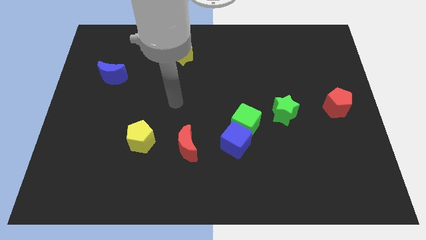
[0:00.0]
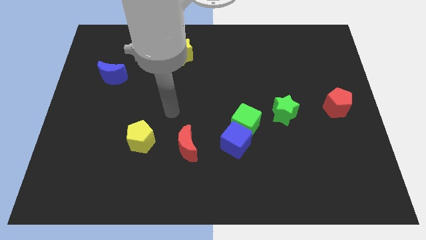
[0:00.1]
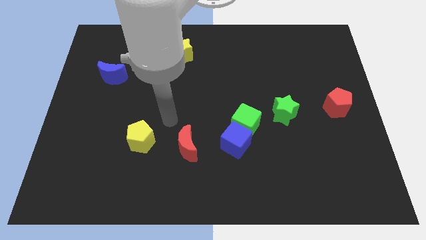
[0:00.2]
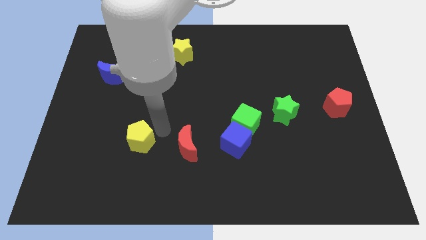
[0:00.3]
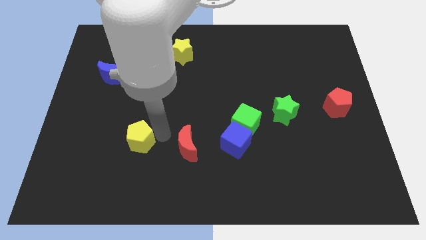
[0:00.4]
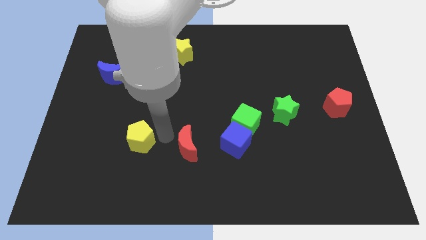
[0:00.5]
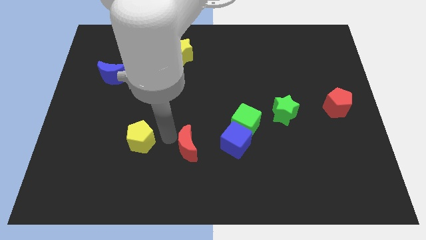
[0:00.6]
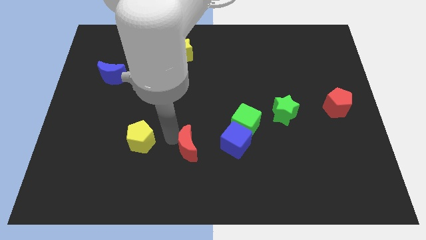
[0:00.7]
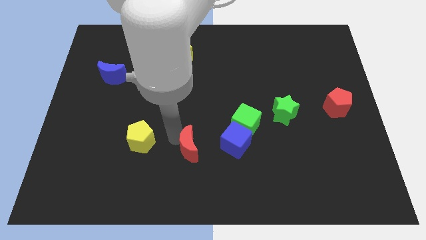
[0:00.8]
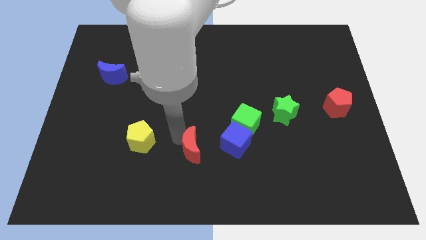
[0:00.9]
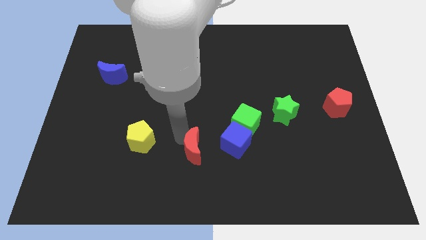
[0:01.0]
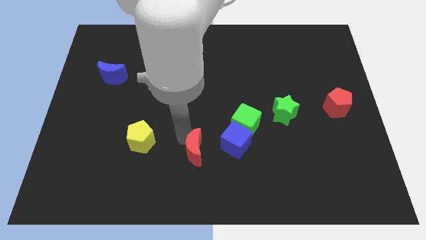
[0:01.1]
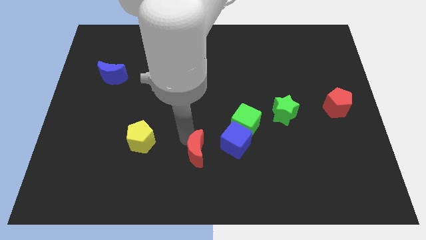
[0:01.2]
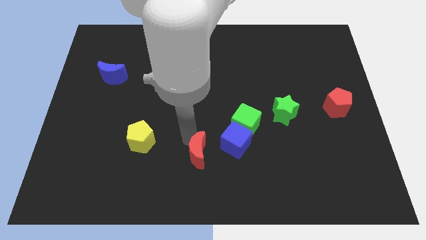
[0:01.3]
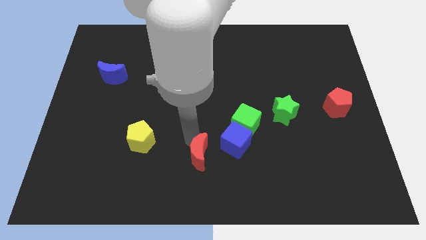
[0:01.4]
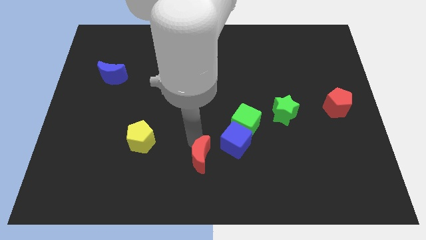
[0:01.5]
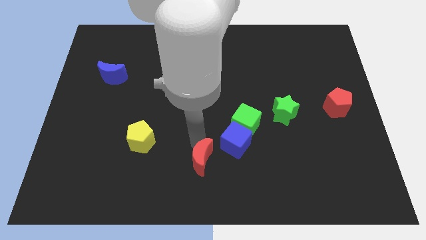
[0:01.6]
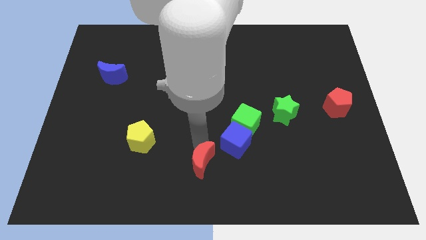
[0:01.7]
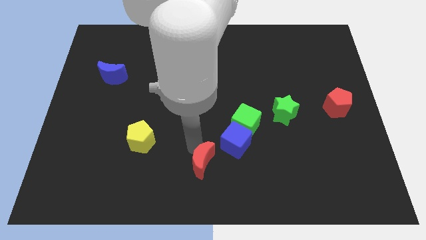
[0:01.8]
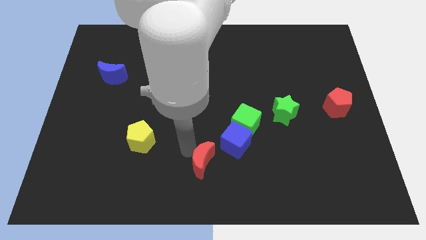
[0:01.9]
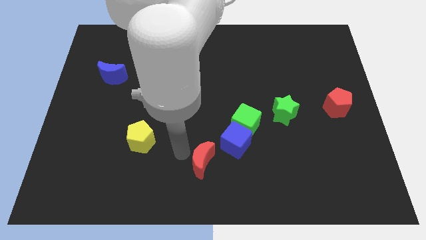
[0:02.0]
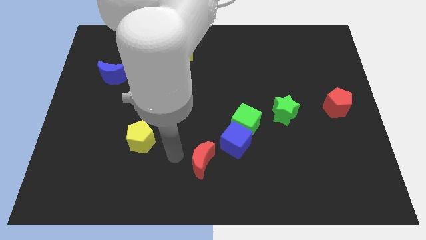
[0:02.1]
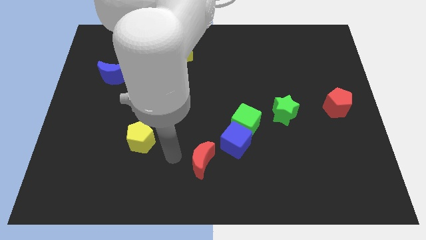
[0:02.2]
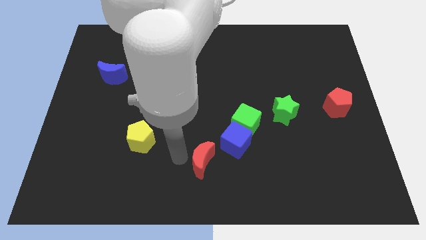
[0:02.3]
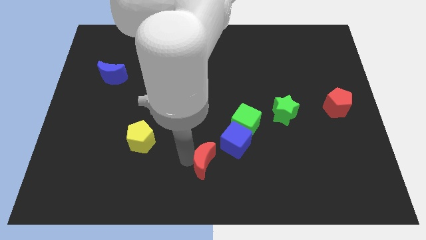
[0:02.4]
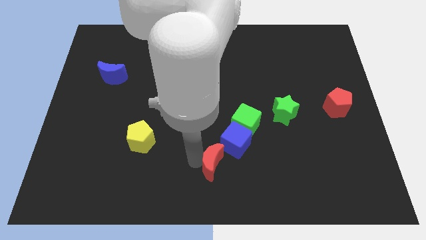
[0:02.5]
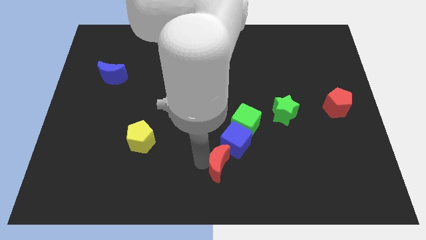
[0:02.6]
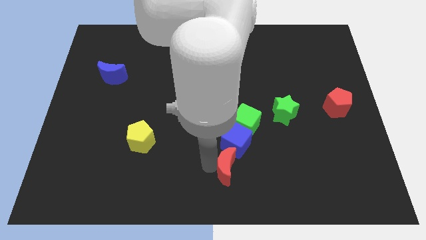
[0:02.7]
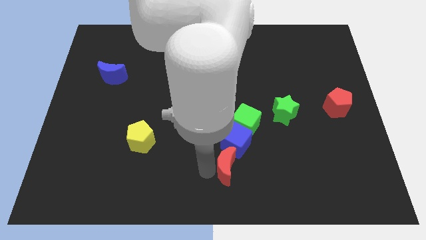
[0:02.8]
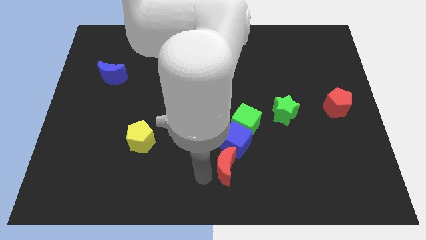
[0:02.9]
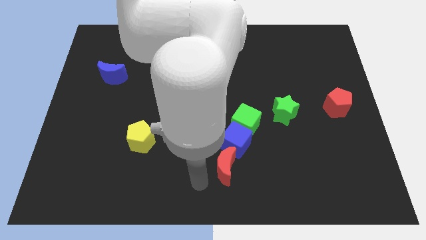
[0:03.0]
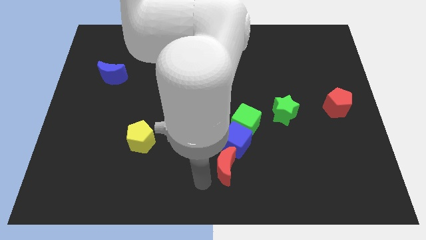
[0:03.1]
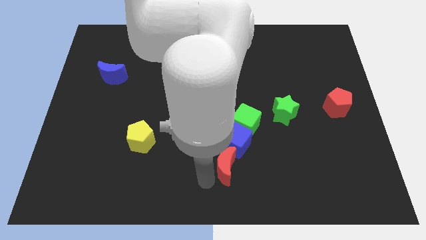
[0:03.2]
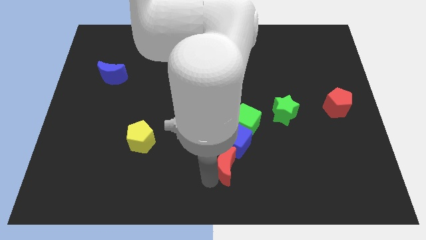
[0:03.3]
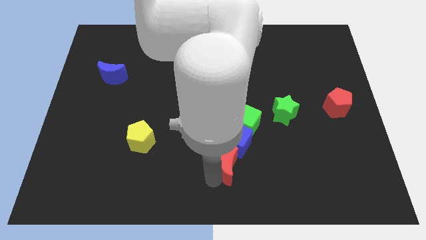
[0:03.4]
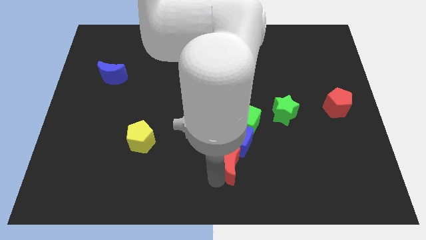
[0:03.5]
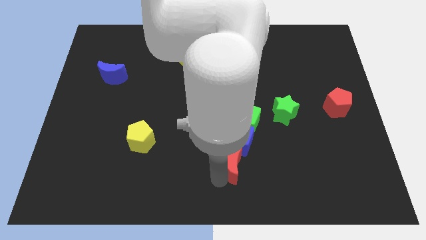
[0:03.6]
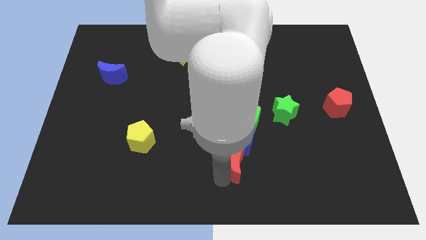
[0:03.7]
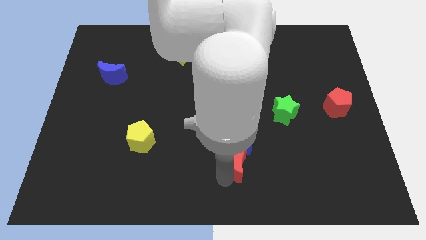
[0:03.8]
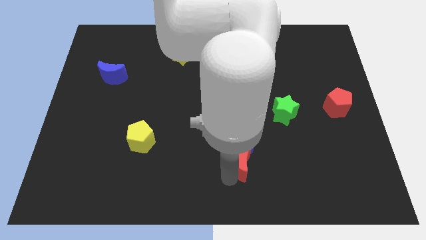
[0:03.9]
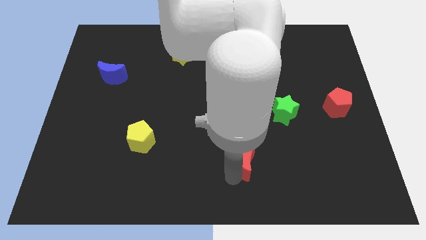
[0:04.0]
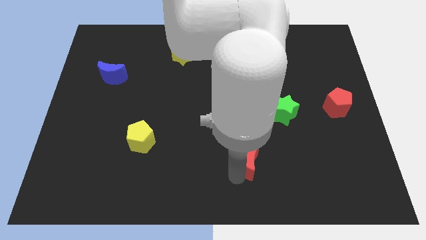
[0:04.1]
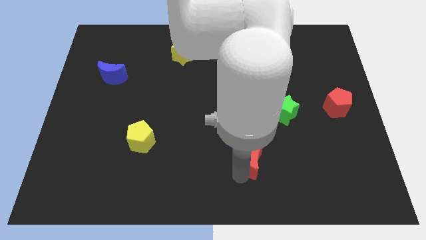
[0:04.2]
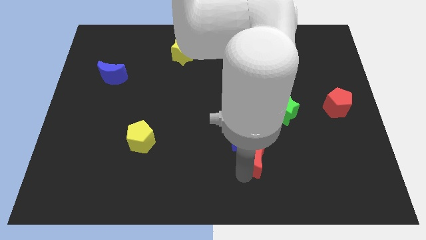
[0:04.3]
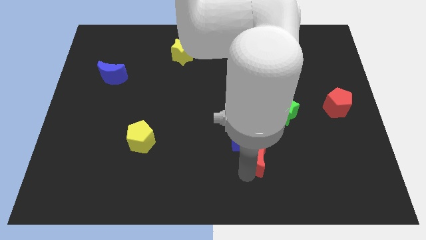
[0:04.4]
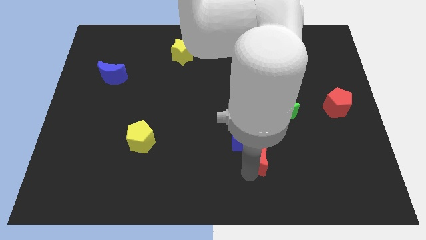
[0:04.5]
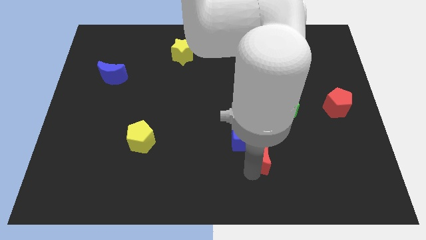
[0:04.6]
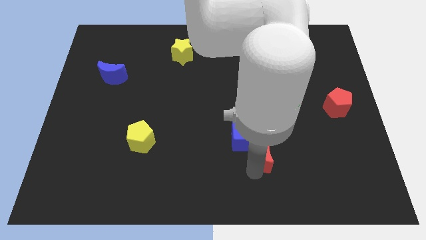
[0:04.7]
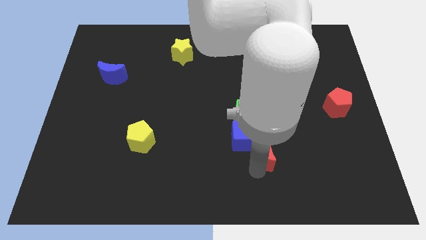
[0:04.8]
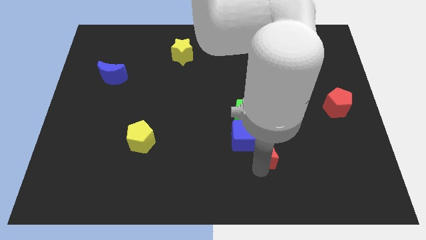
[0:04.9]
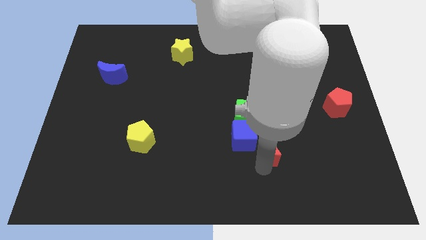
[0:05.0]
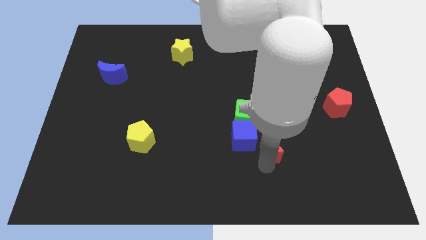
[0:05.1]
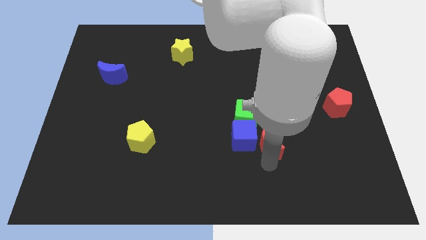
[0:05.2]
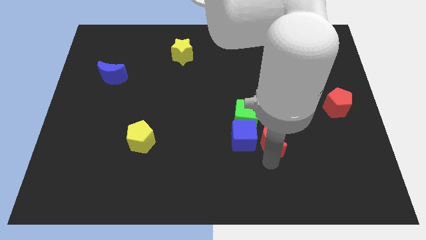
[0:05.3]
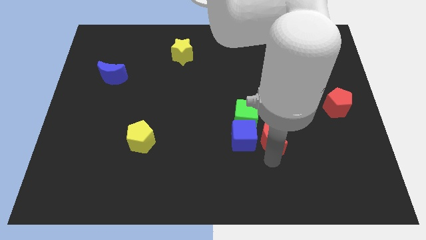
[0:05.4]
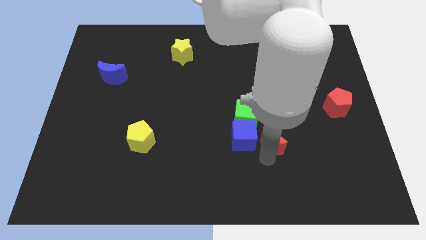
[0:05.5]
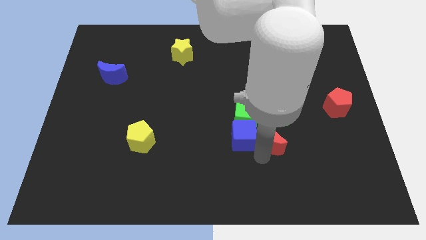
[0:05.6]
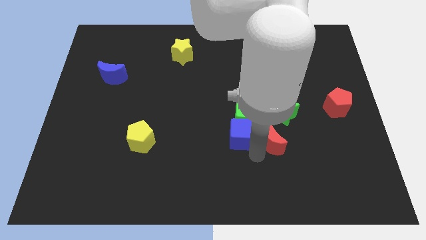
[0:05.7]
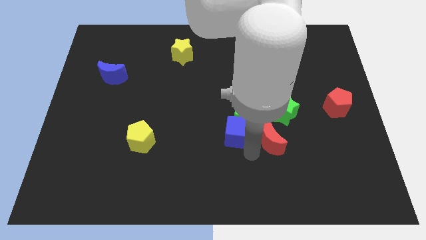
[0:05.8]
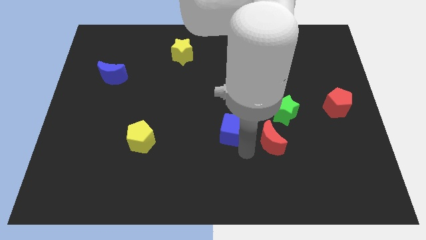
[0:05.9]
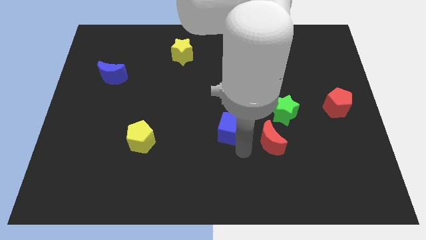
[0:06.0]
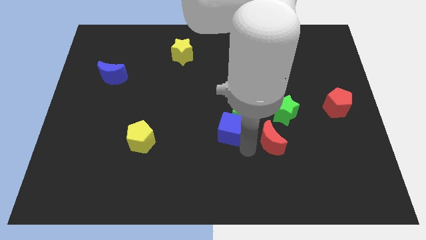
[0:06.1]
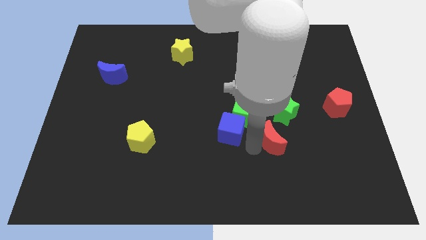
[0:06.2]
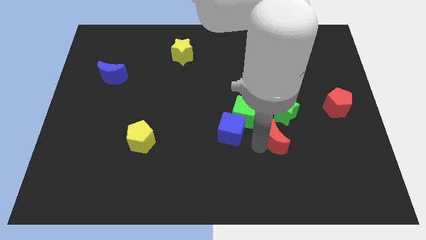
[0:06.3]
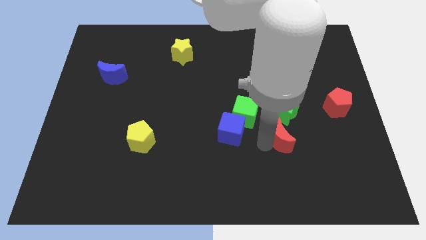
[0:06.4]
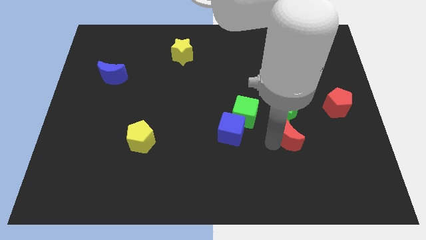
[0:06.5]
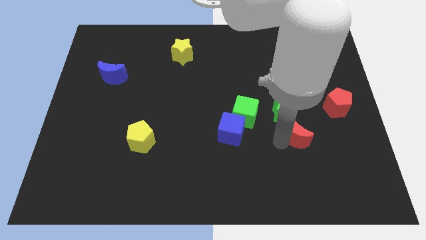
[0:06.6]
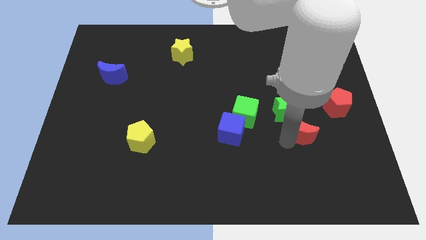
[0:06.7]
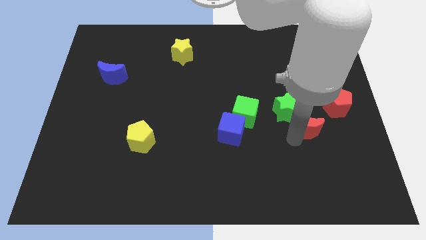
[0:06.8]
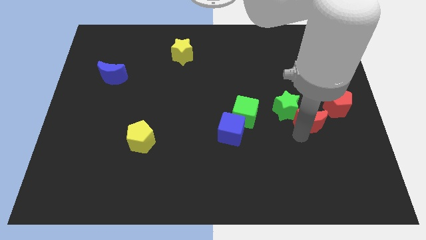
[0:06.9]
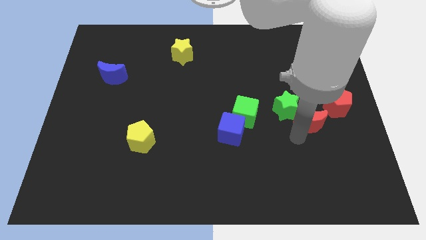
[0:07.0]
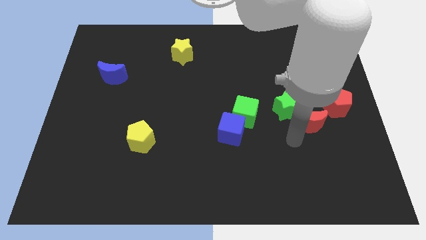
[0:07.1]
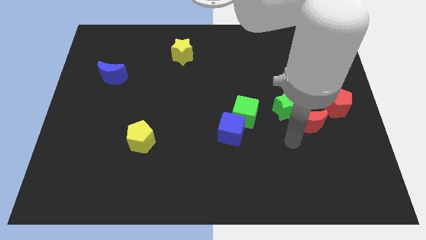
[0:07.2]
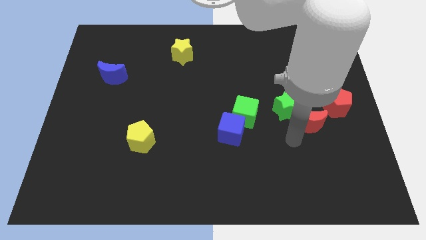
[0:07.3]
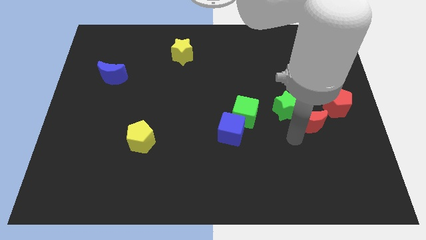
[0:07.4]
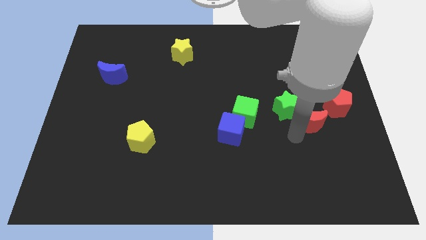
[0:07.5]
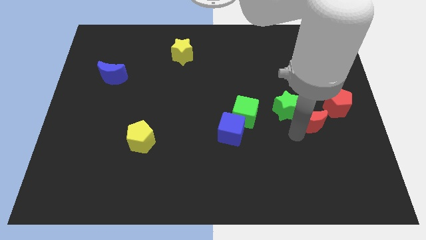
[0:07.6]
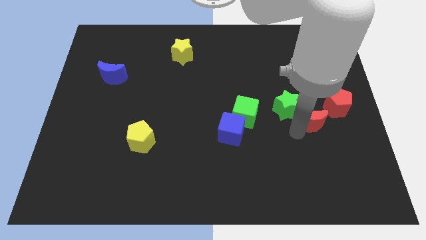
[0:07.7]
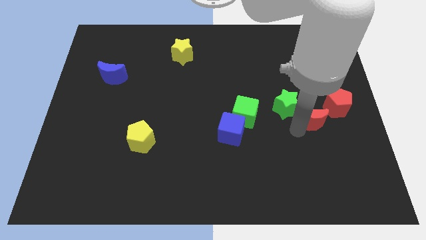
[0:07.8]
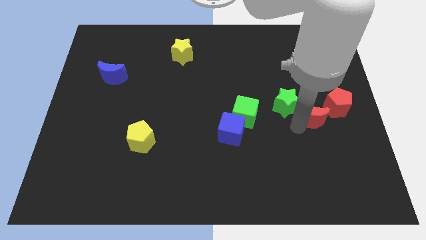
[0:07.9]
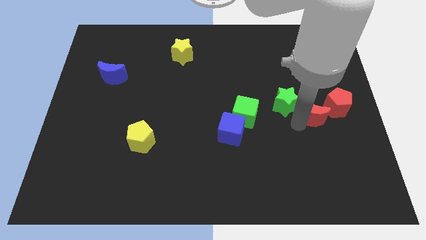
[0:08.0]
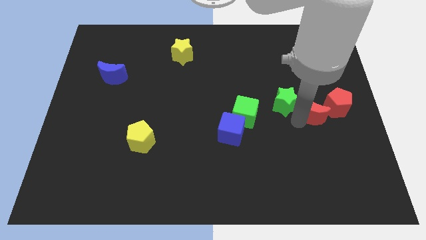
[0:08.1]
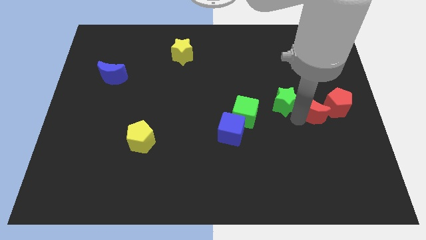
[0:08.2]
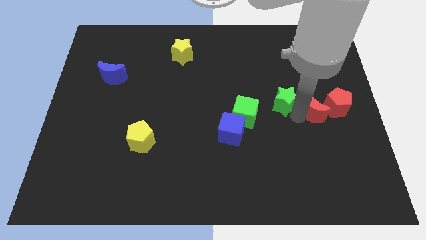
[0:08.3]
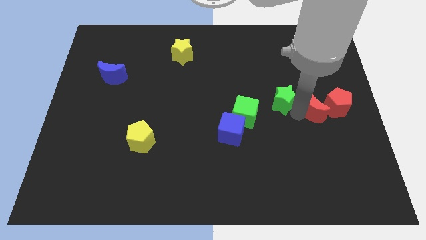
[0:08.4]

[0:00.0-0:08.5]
push the red moon towards the red pentagon
